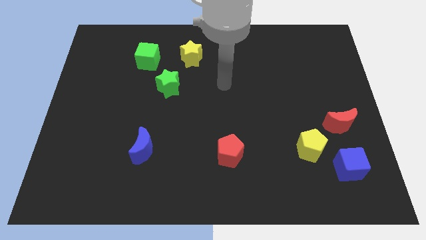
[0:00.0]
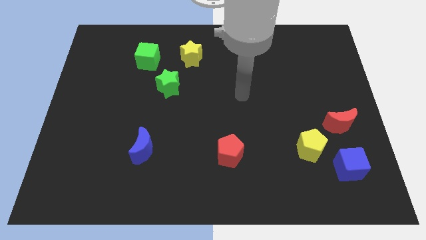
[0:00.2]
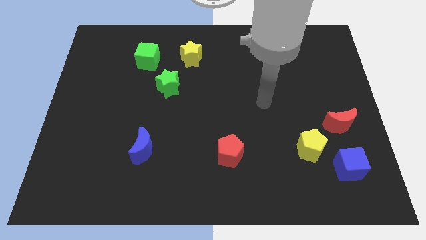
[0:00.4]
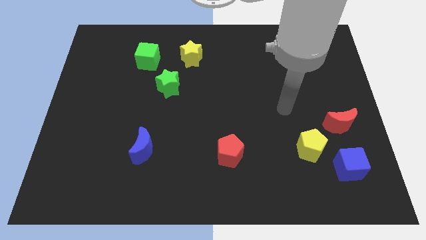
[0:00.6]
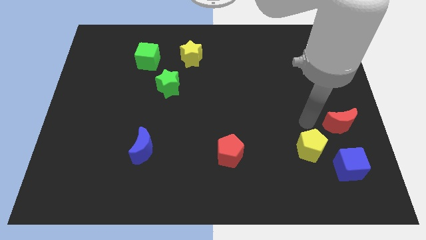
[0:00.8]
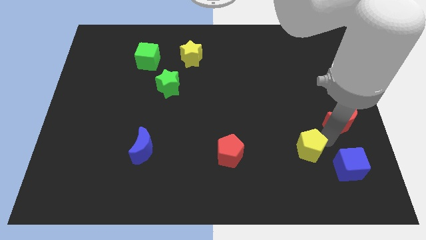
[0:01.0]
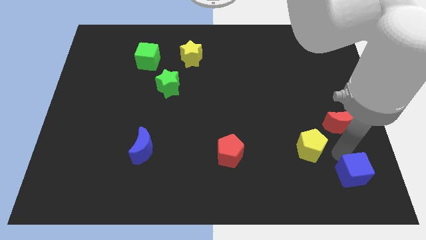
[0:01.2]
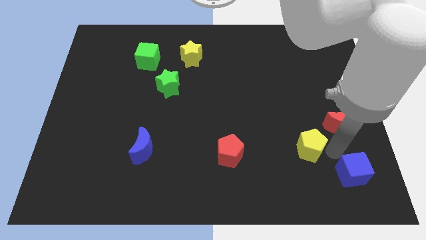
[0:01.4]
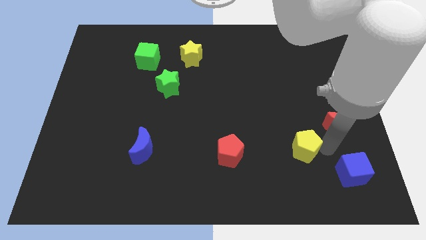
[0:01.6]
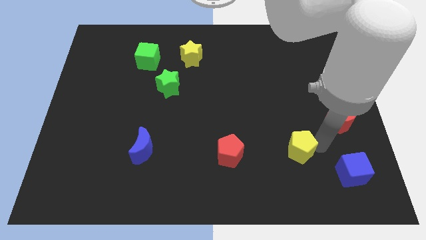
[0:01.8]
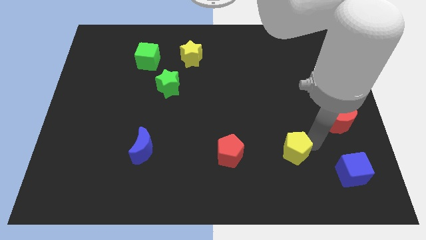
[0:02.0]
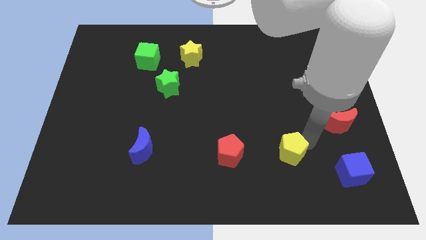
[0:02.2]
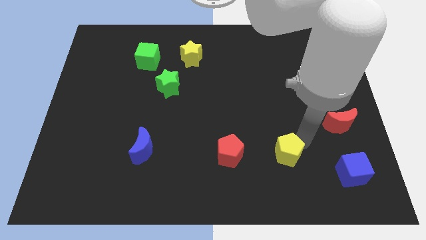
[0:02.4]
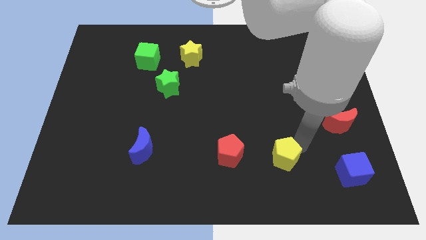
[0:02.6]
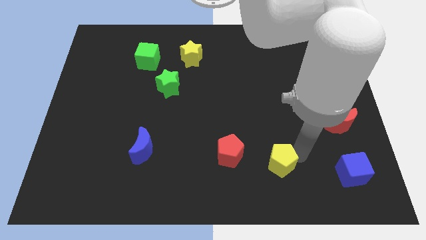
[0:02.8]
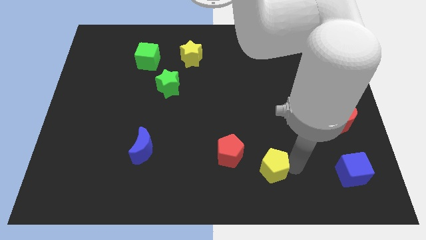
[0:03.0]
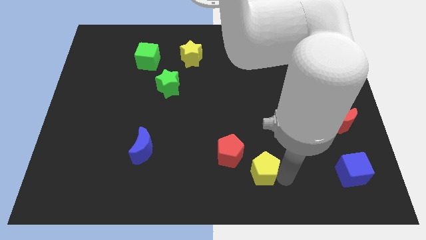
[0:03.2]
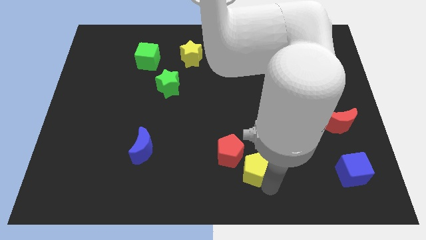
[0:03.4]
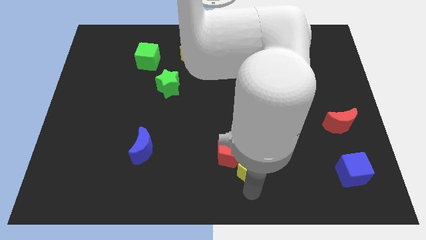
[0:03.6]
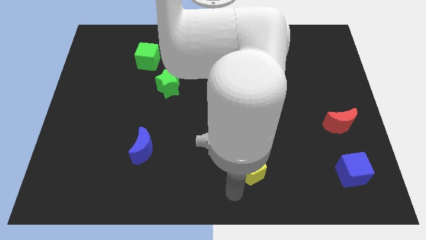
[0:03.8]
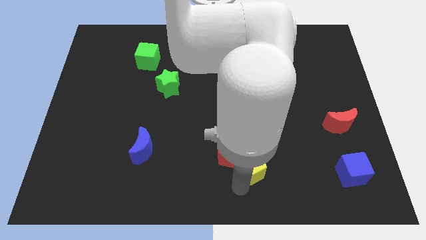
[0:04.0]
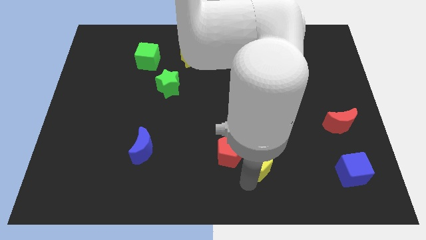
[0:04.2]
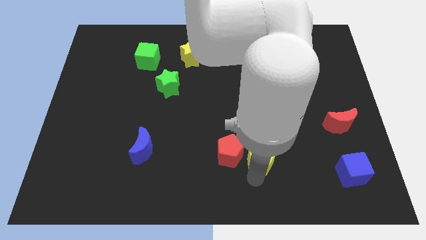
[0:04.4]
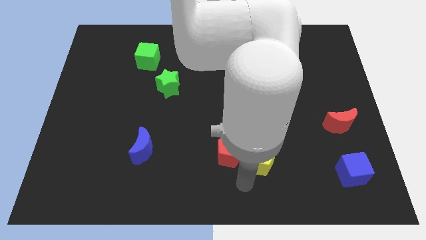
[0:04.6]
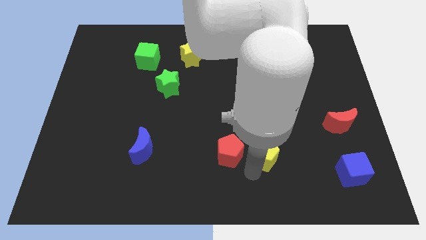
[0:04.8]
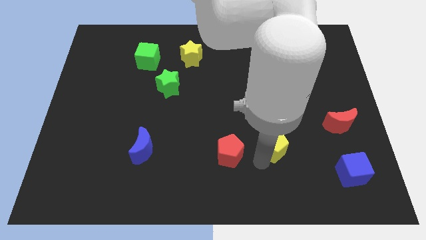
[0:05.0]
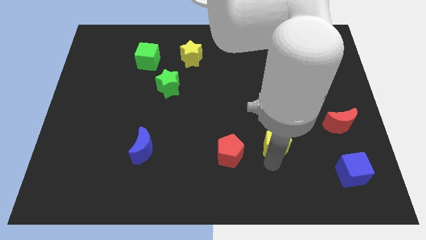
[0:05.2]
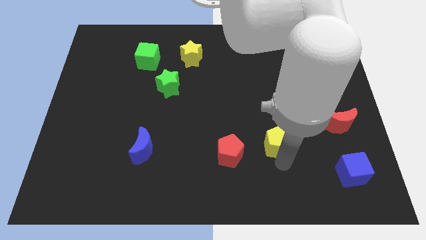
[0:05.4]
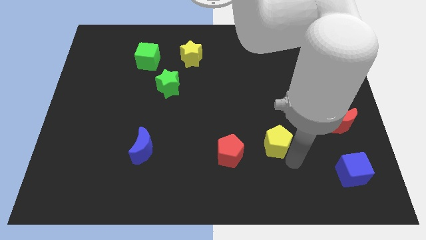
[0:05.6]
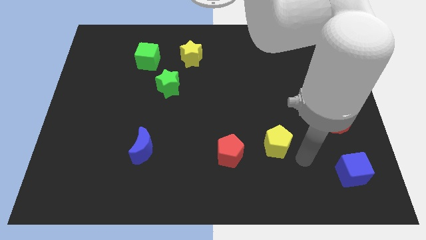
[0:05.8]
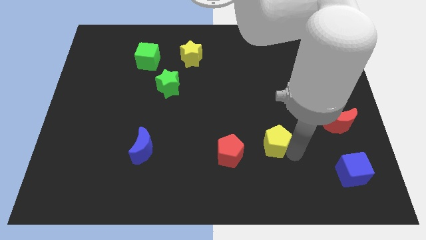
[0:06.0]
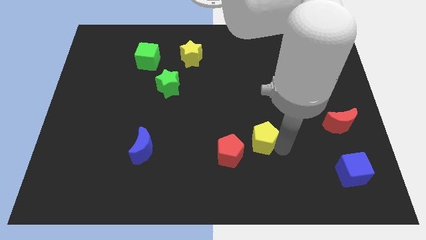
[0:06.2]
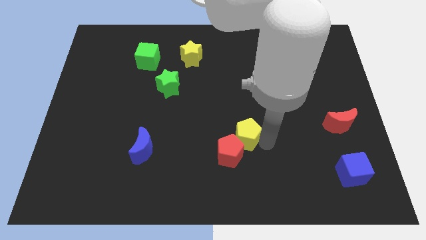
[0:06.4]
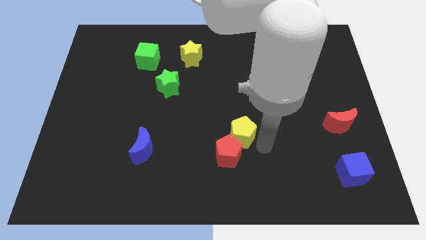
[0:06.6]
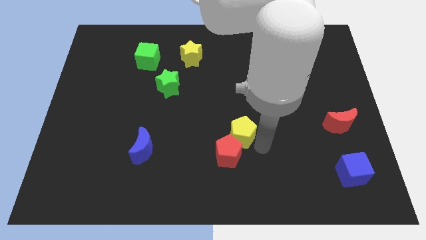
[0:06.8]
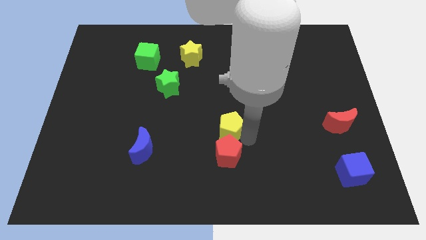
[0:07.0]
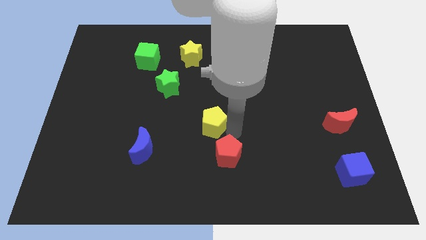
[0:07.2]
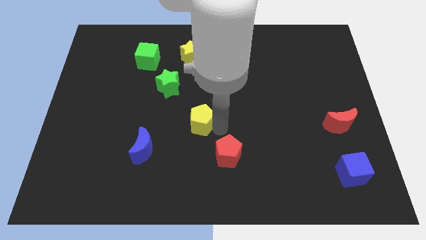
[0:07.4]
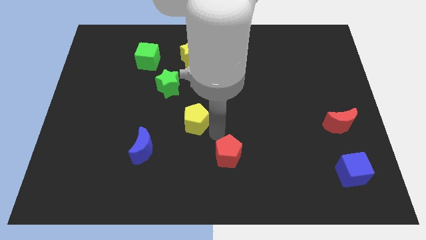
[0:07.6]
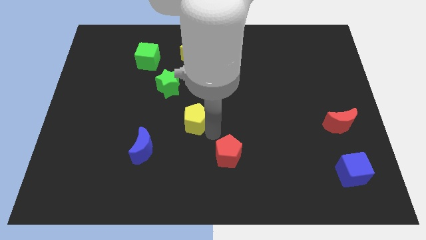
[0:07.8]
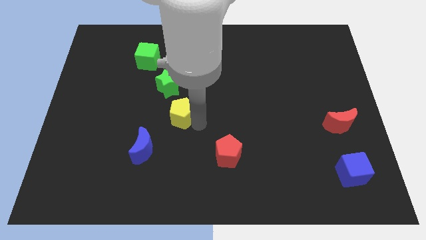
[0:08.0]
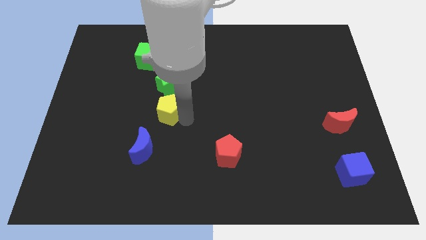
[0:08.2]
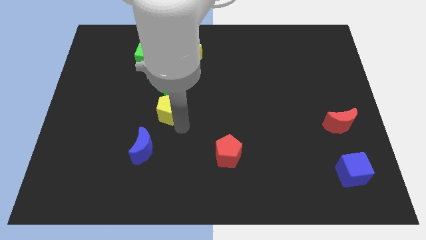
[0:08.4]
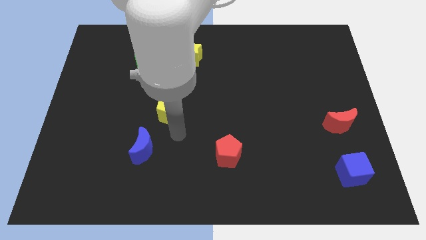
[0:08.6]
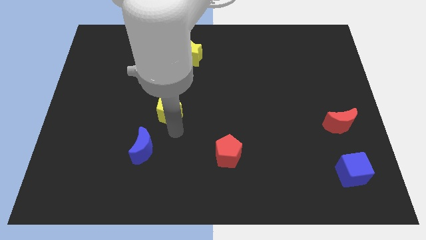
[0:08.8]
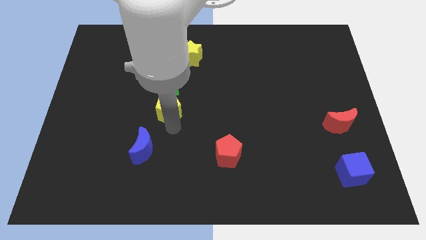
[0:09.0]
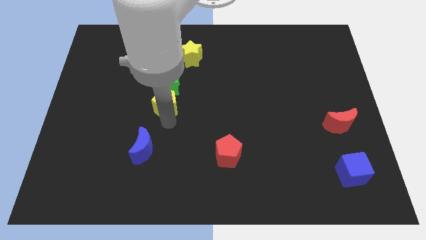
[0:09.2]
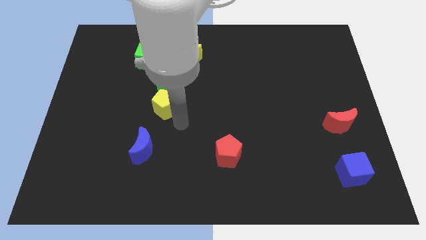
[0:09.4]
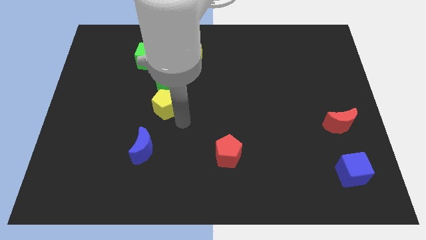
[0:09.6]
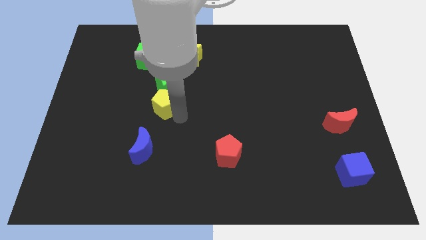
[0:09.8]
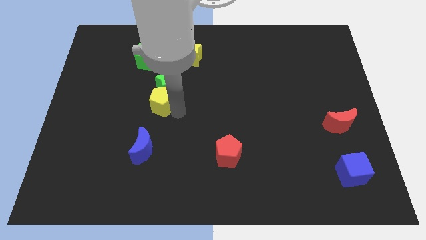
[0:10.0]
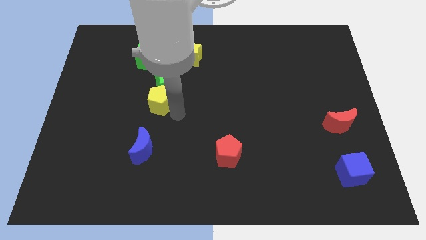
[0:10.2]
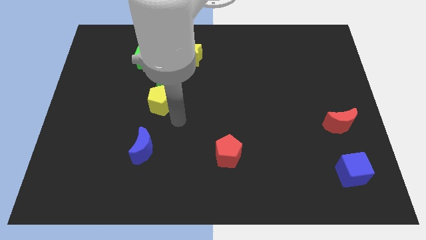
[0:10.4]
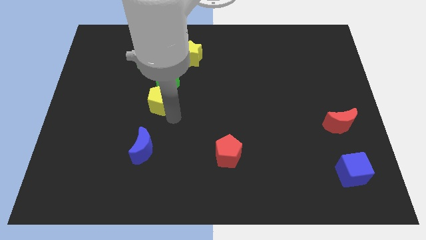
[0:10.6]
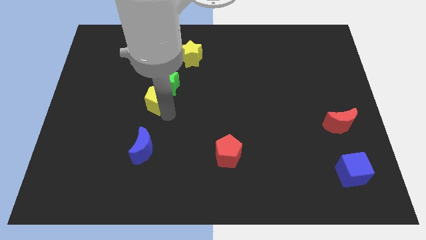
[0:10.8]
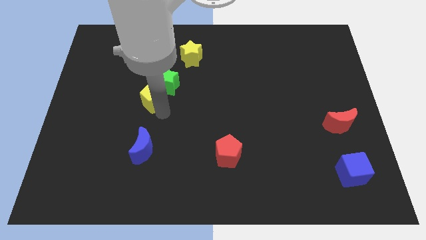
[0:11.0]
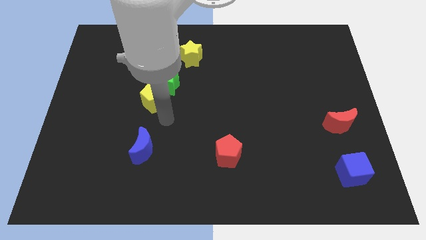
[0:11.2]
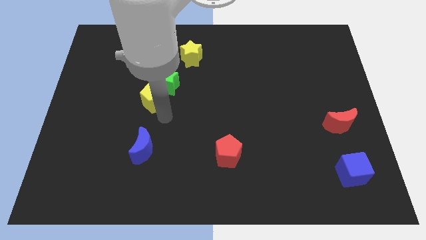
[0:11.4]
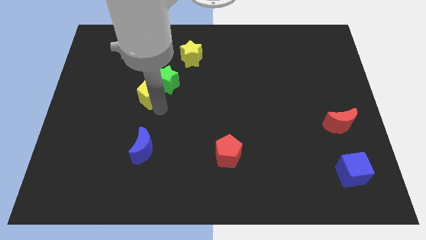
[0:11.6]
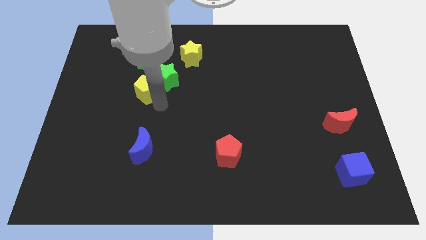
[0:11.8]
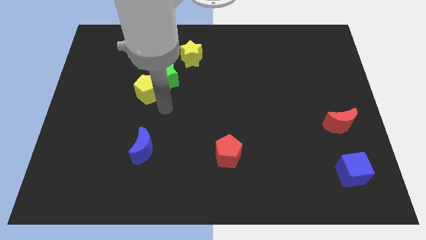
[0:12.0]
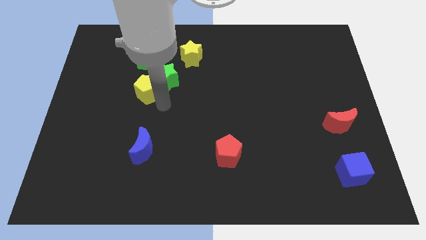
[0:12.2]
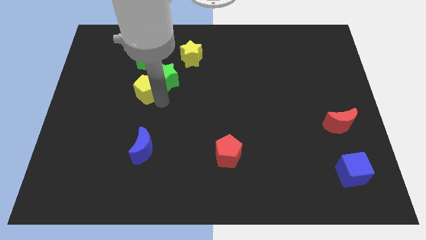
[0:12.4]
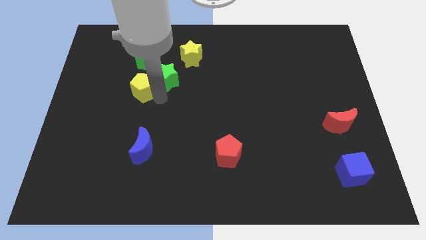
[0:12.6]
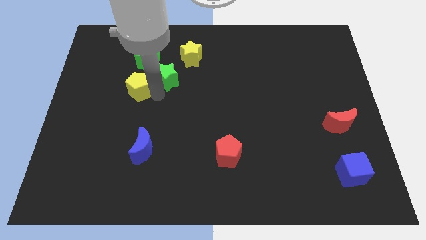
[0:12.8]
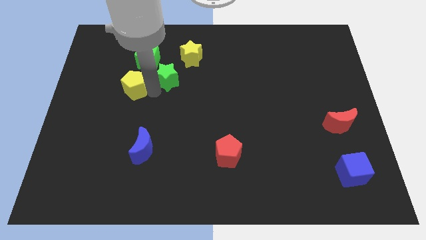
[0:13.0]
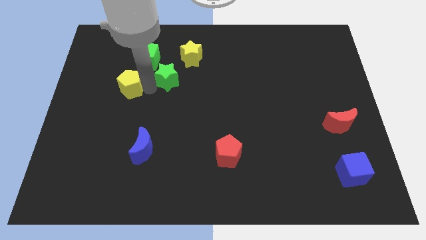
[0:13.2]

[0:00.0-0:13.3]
move the yellow pentagon to the bottom left side of the green cube

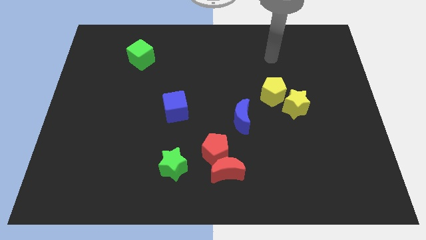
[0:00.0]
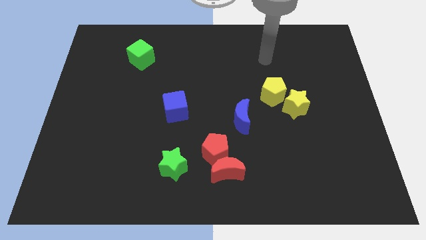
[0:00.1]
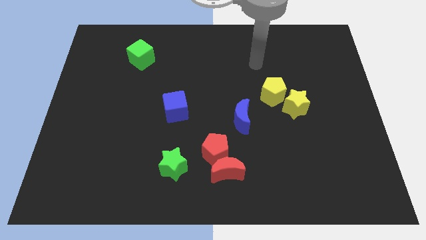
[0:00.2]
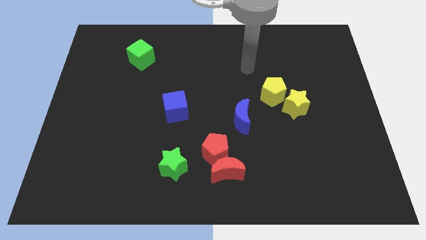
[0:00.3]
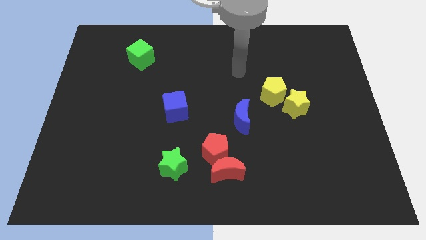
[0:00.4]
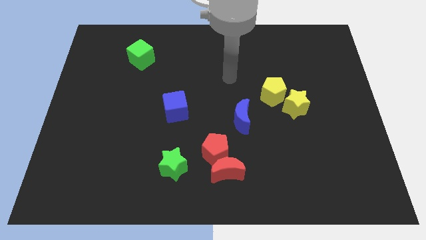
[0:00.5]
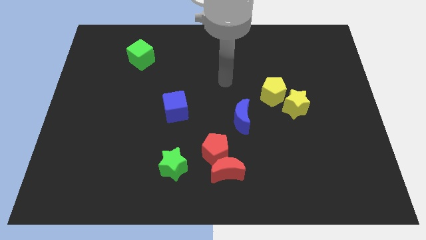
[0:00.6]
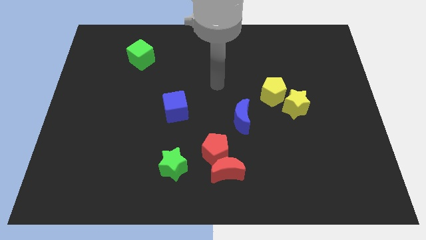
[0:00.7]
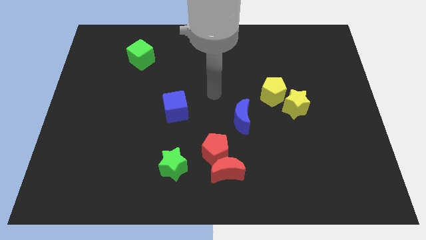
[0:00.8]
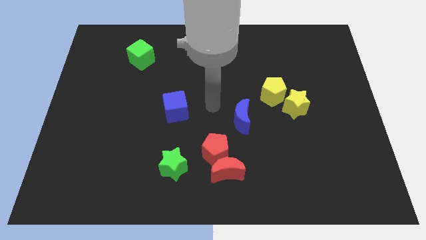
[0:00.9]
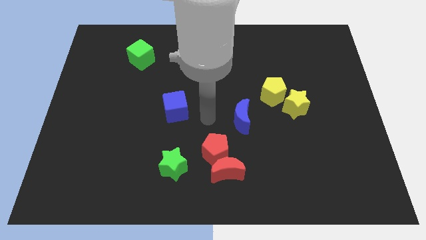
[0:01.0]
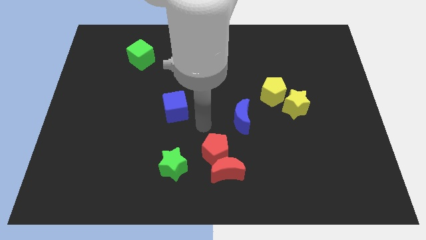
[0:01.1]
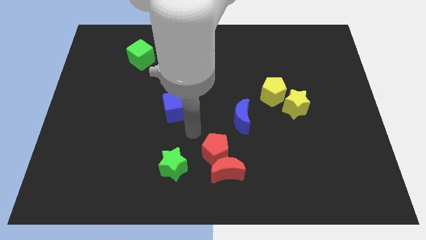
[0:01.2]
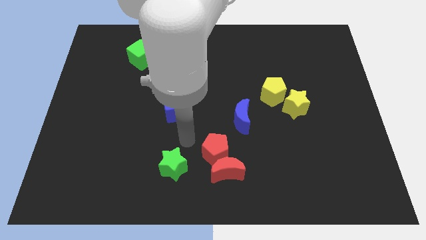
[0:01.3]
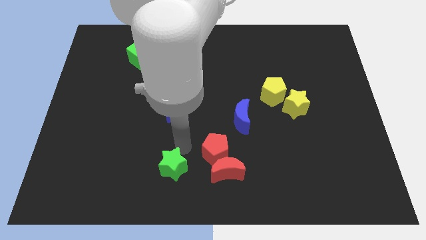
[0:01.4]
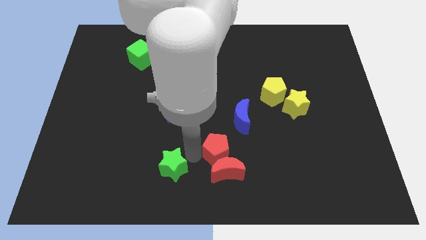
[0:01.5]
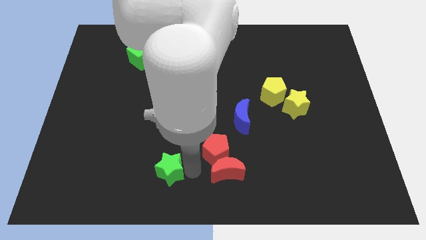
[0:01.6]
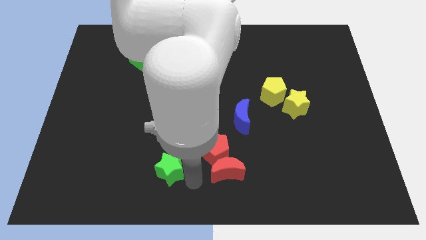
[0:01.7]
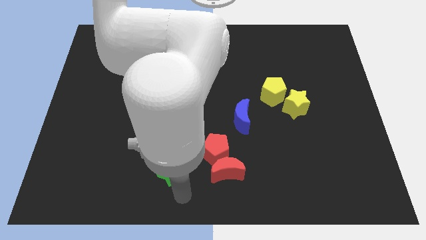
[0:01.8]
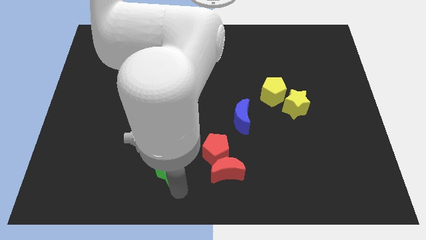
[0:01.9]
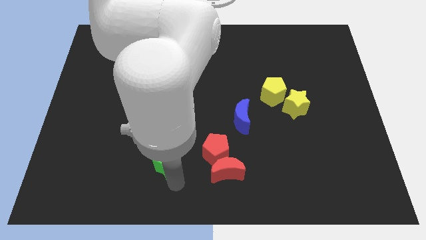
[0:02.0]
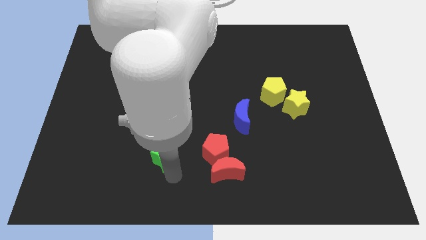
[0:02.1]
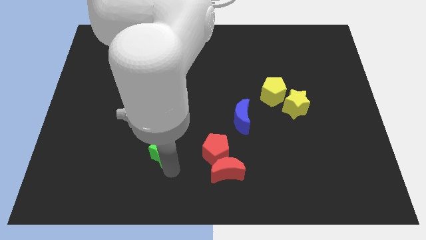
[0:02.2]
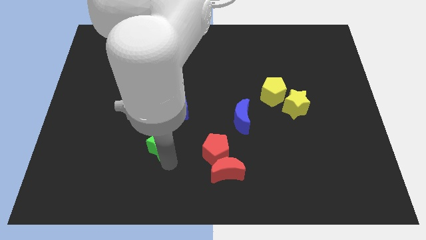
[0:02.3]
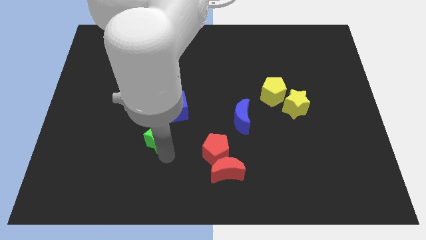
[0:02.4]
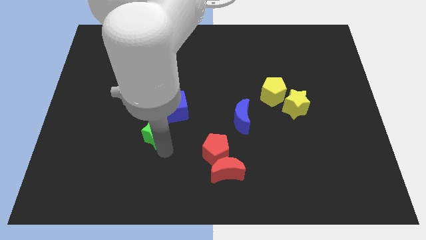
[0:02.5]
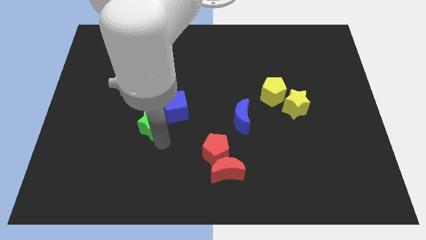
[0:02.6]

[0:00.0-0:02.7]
move the green star just left of the blue cube
